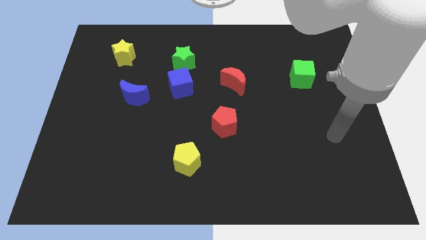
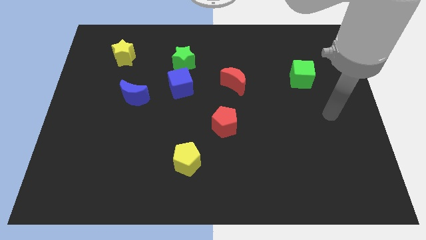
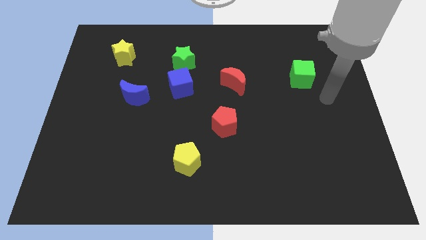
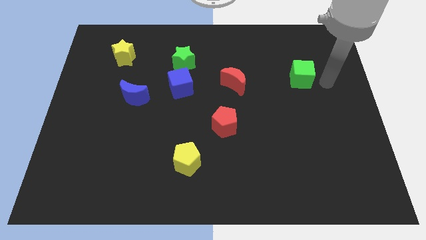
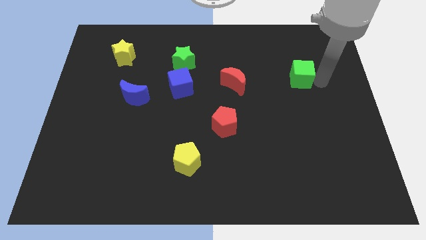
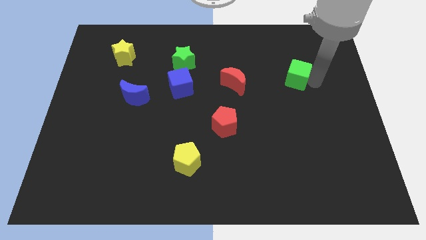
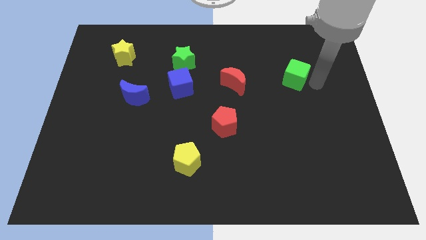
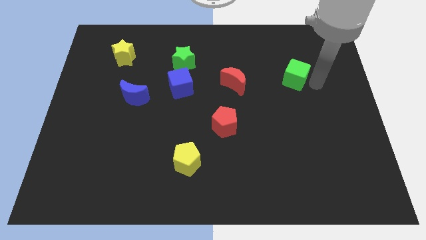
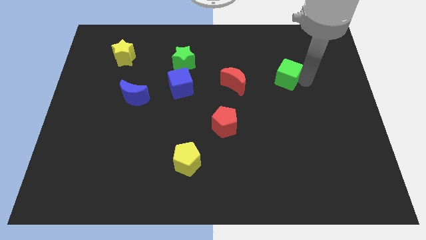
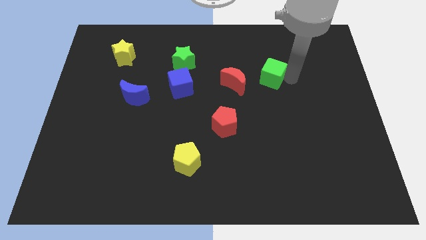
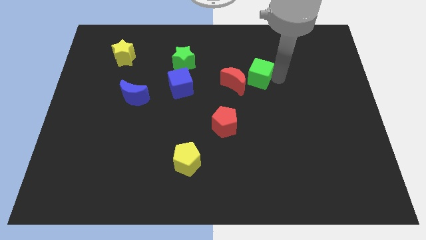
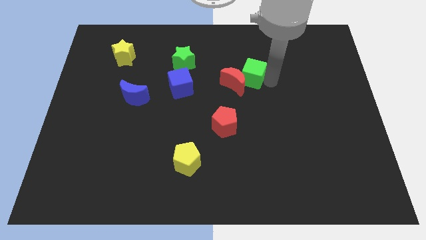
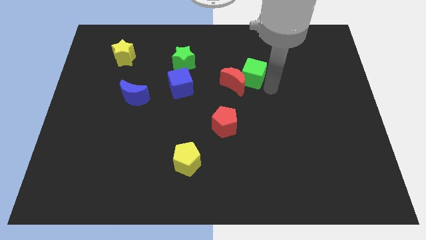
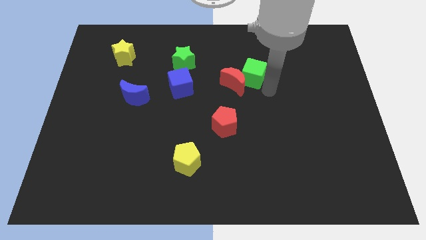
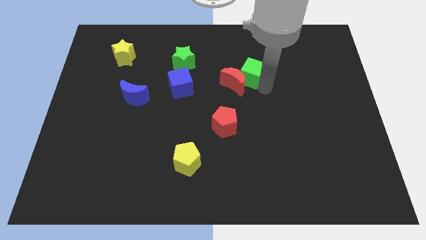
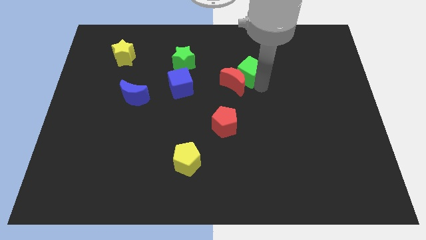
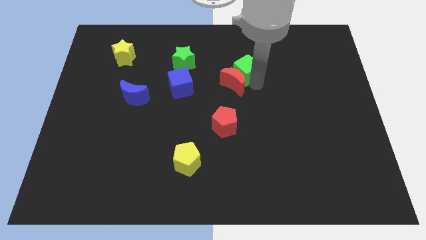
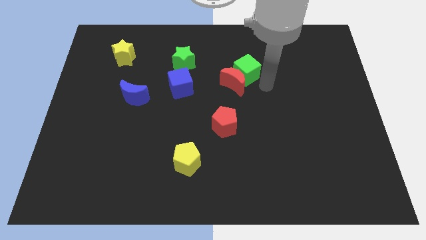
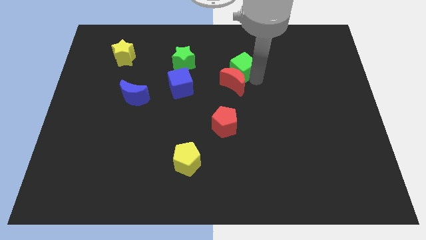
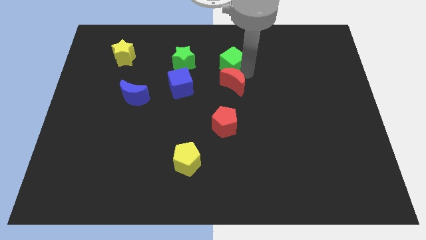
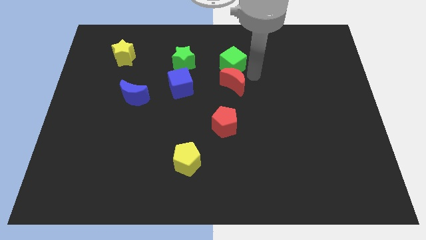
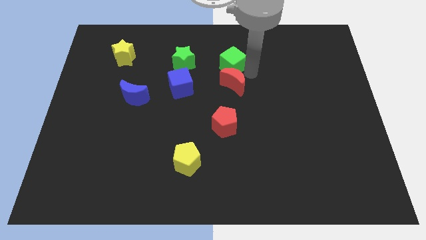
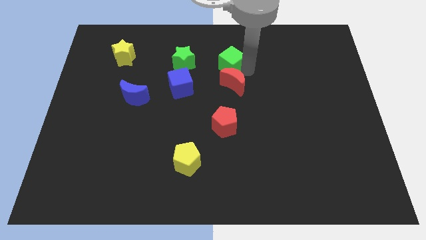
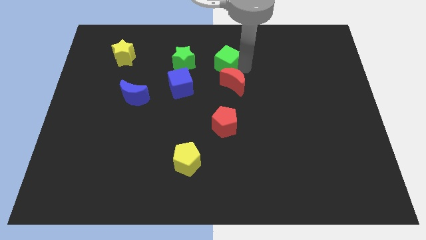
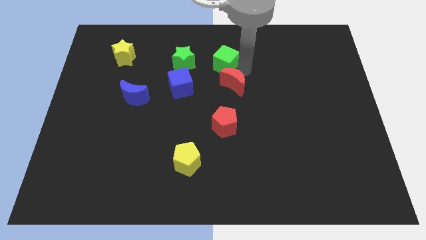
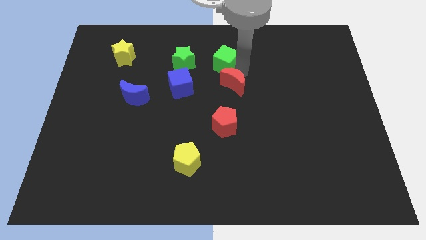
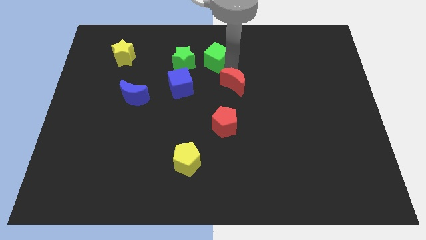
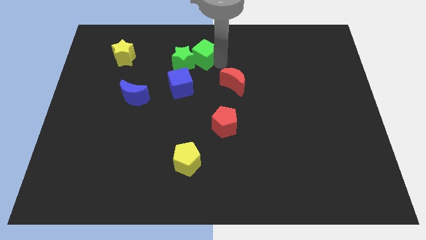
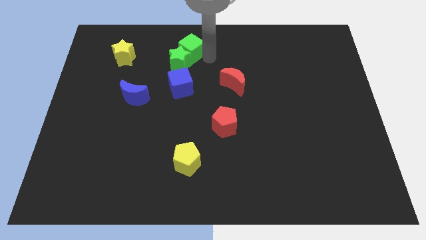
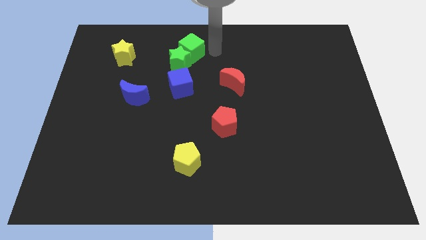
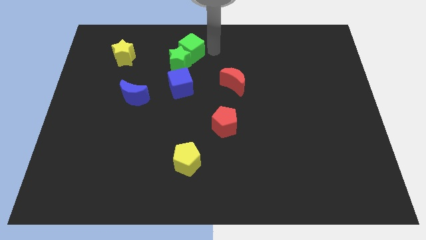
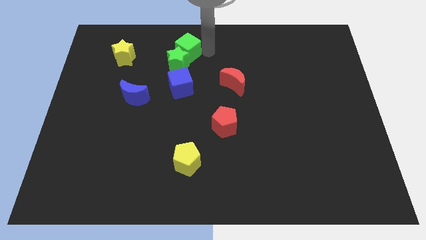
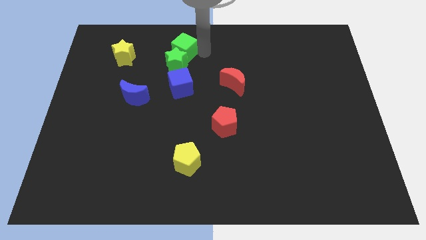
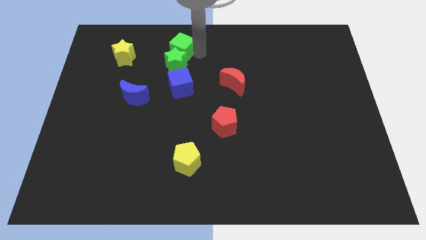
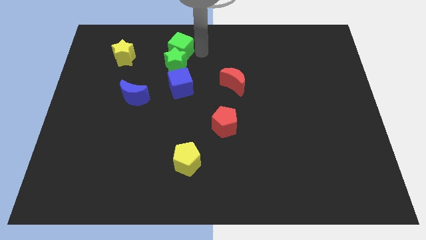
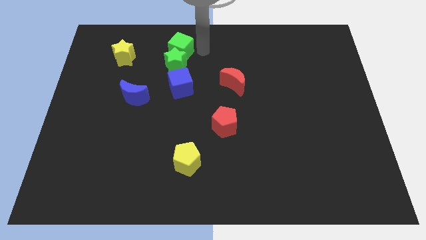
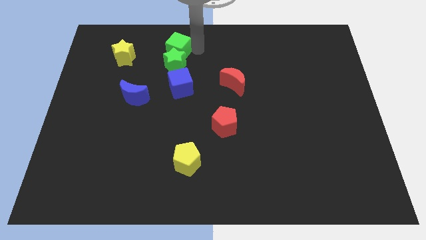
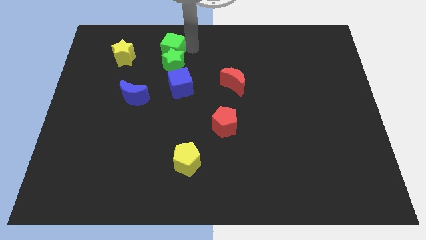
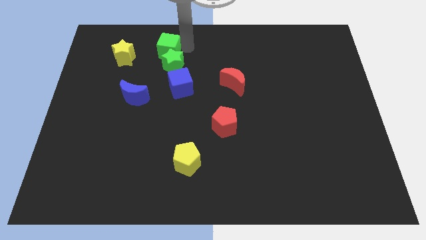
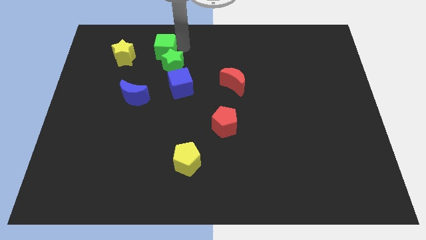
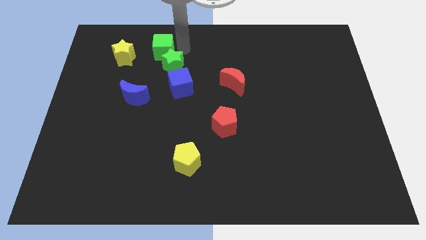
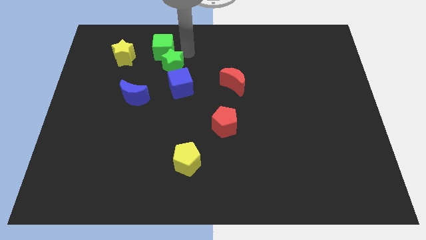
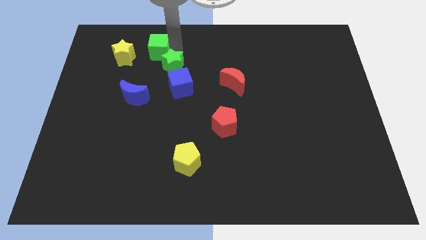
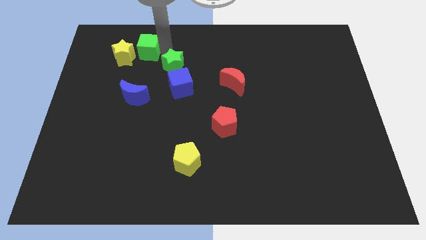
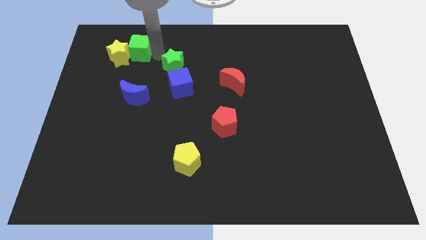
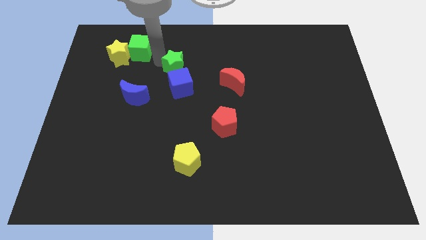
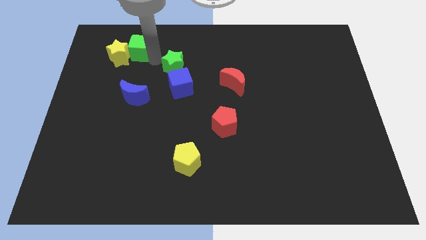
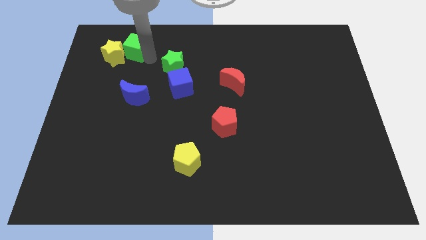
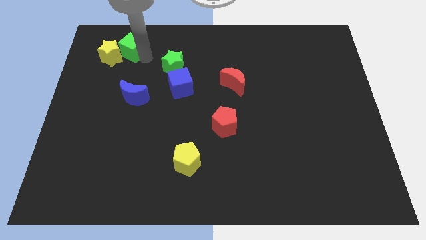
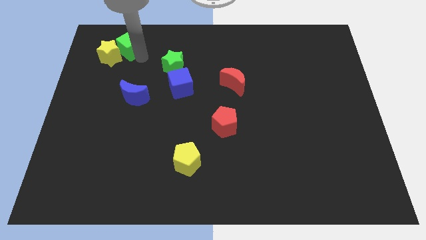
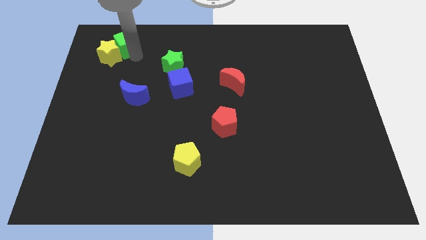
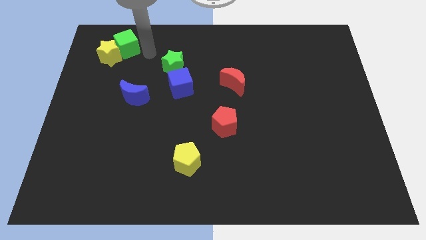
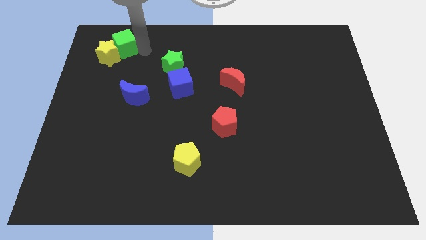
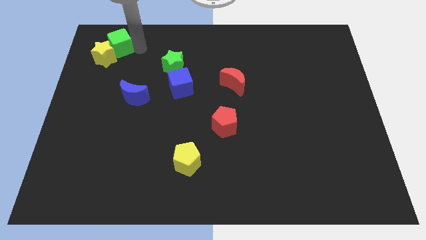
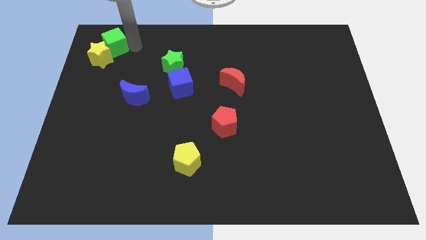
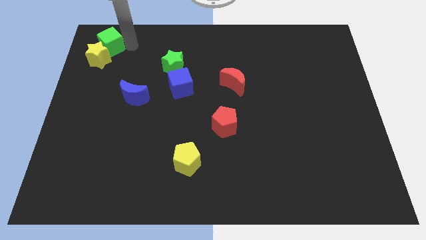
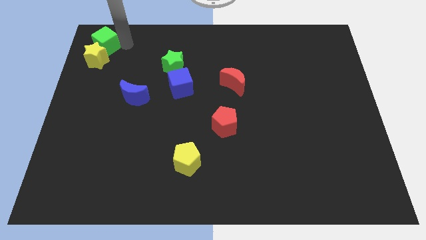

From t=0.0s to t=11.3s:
move the green cube to the upper left corner

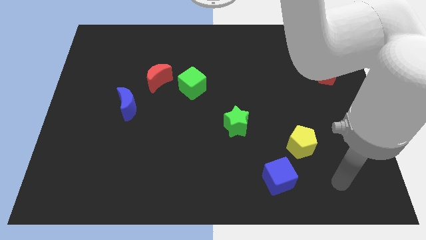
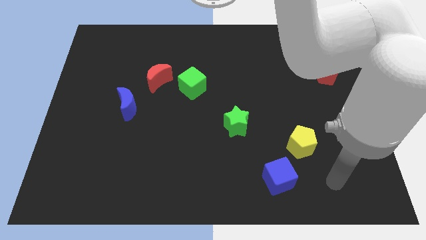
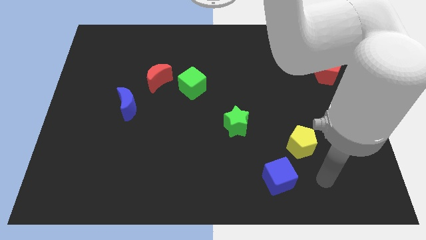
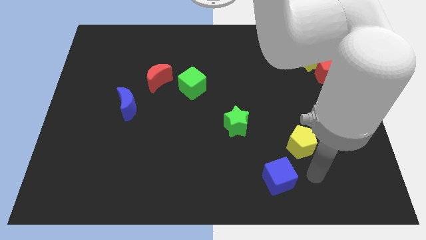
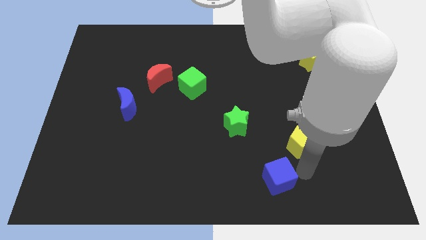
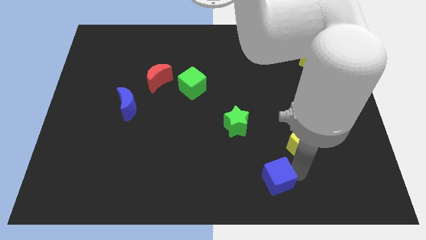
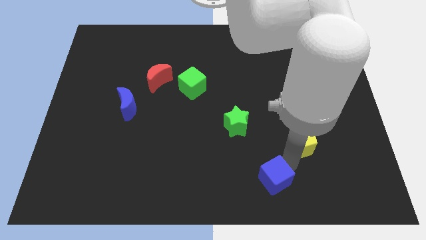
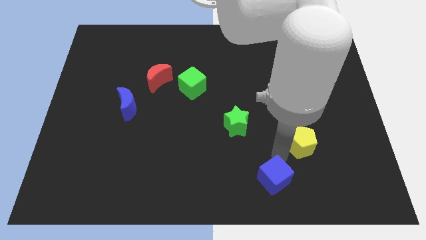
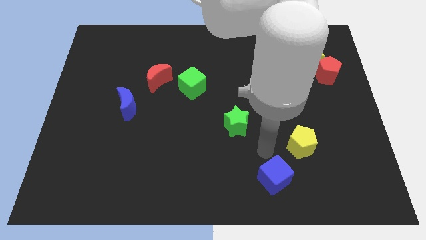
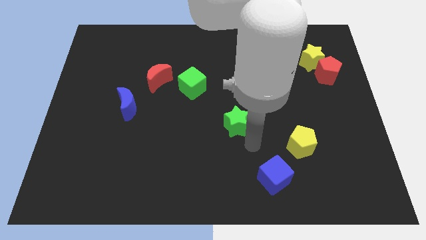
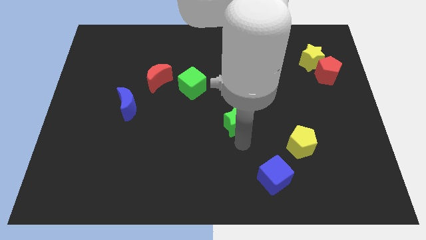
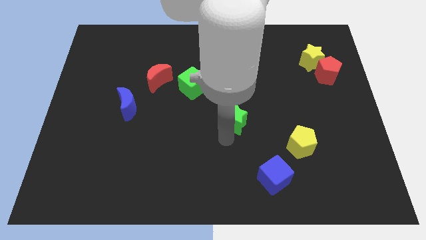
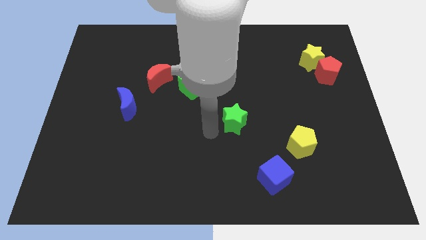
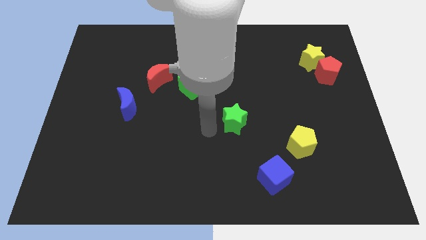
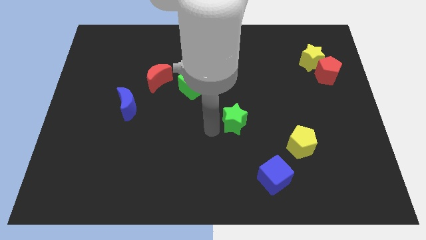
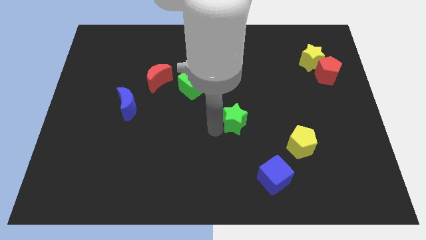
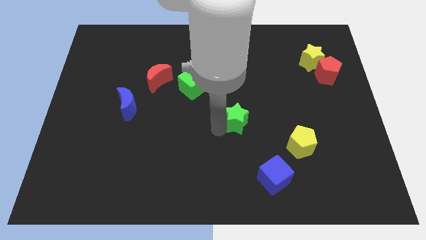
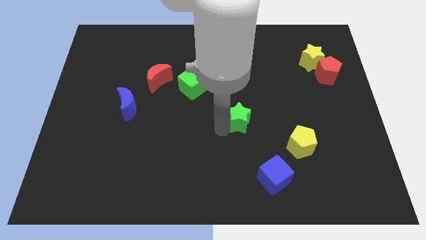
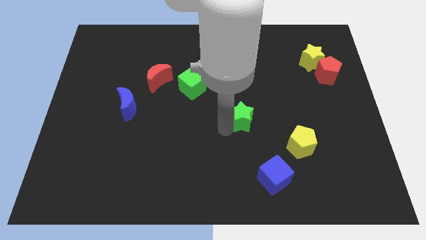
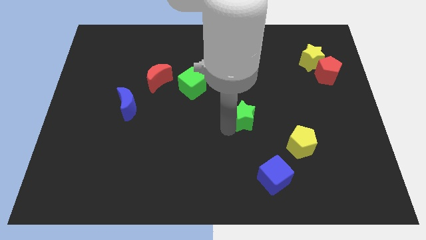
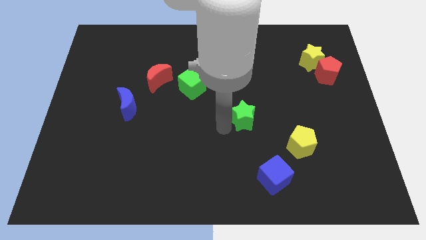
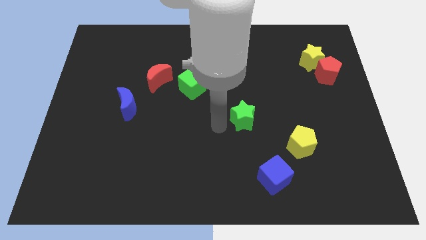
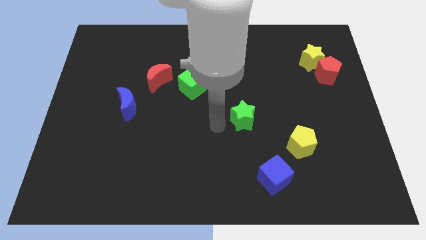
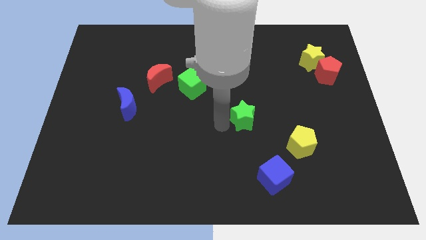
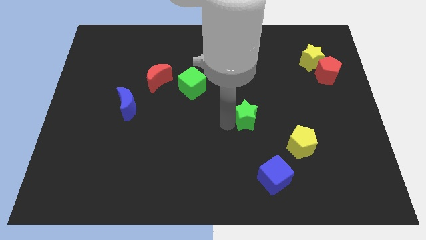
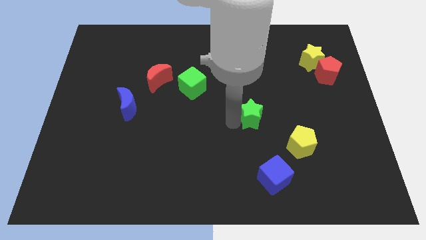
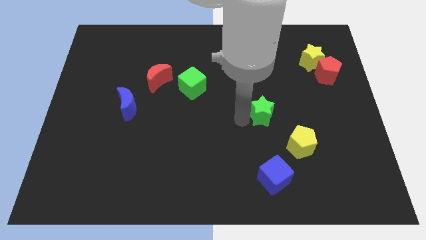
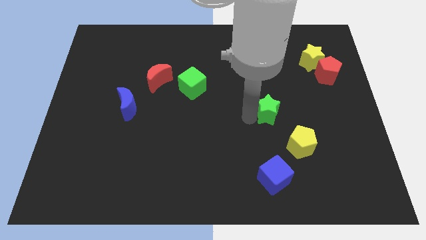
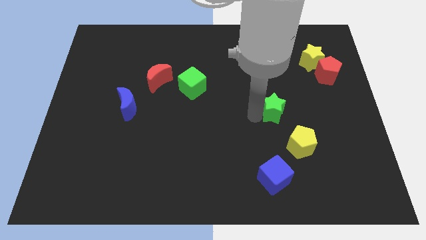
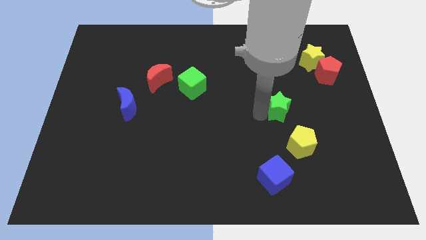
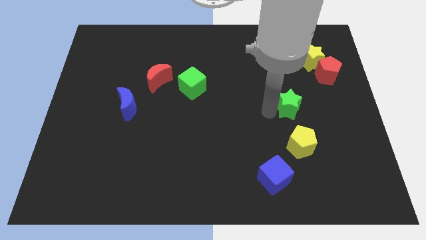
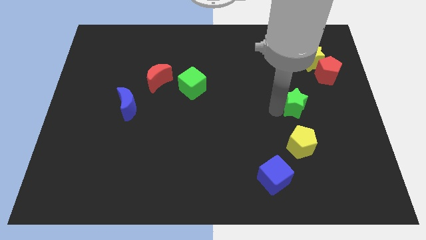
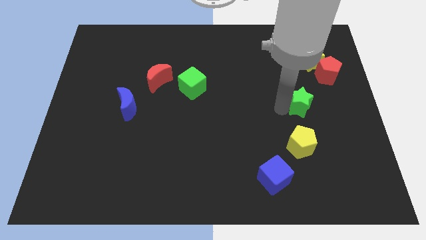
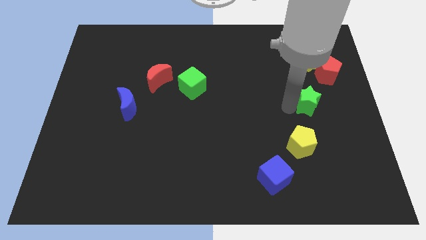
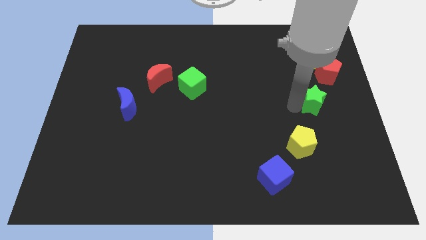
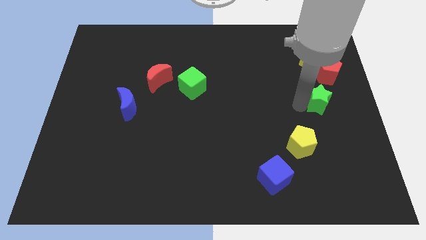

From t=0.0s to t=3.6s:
push the green star to the right side
